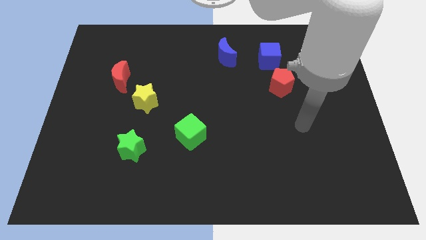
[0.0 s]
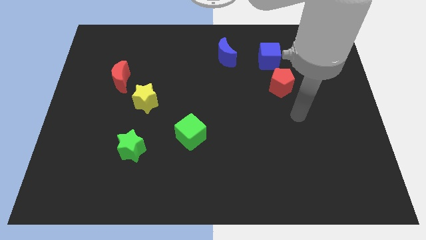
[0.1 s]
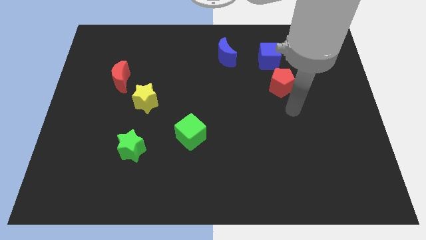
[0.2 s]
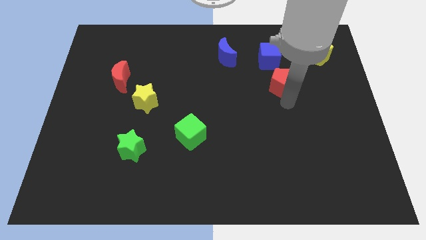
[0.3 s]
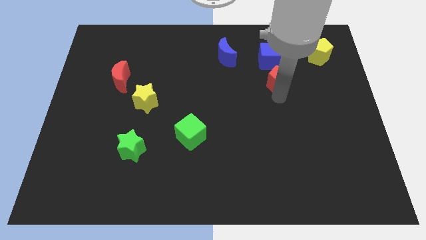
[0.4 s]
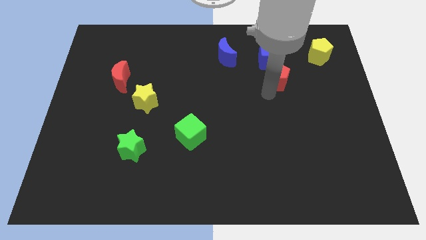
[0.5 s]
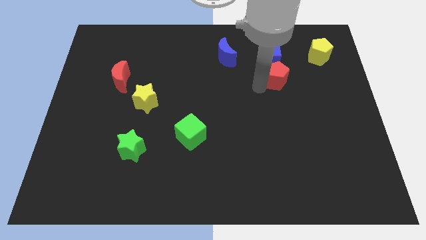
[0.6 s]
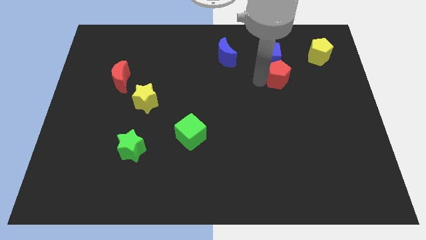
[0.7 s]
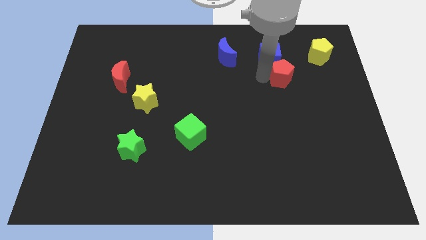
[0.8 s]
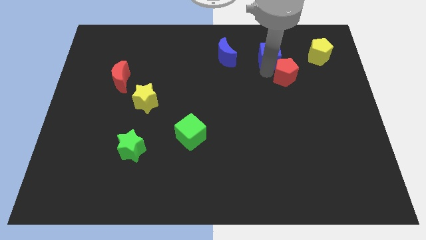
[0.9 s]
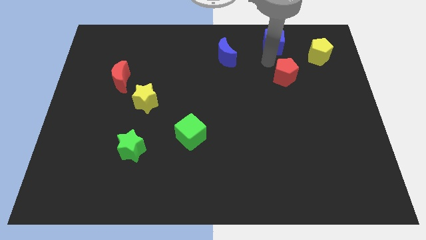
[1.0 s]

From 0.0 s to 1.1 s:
pull the red pentagon apart from the blue cube

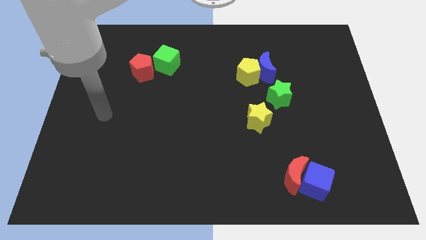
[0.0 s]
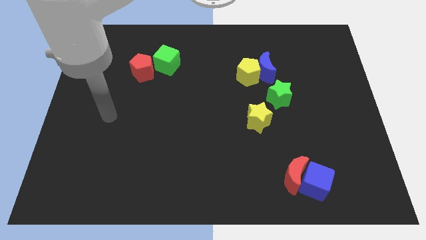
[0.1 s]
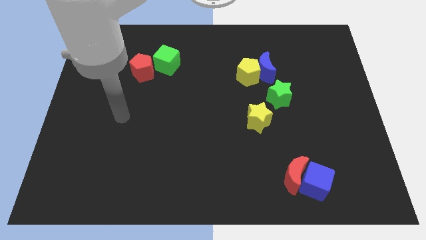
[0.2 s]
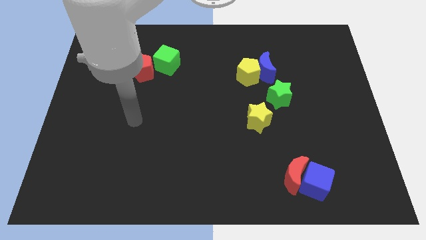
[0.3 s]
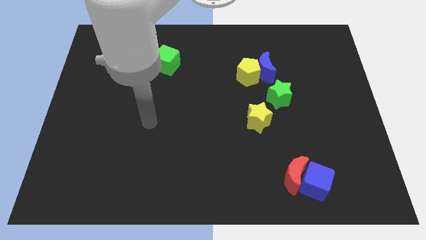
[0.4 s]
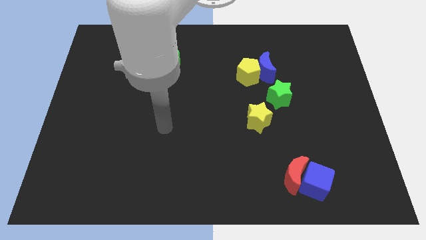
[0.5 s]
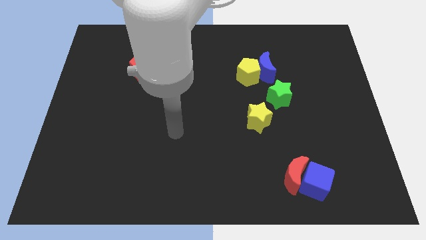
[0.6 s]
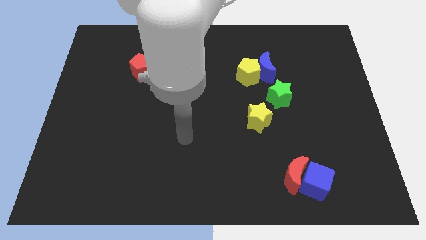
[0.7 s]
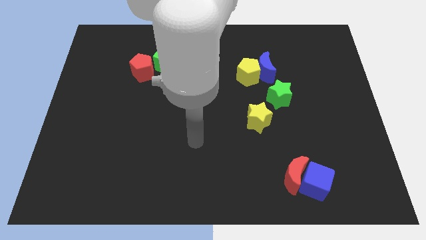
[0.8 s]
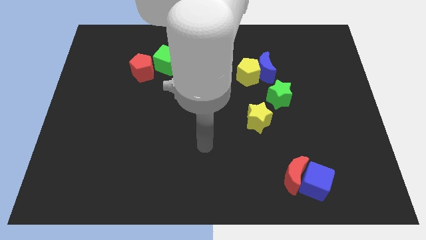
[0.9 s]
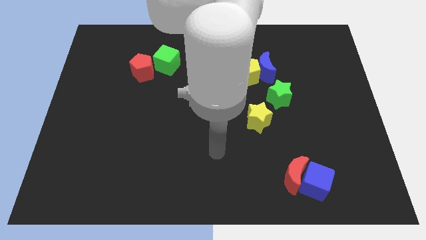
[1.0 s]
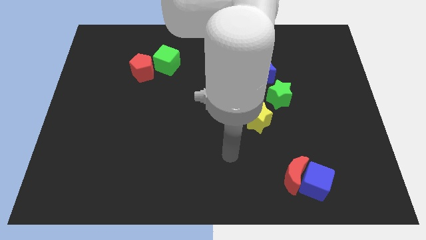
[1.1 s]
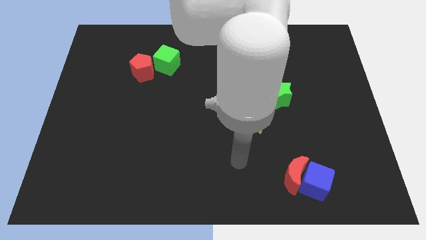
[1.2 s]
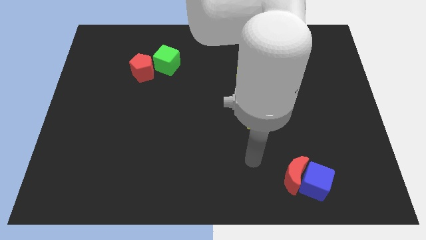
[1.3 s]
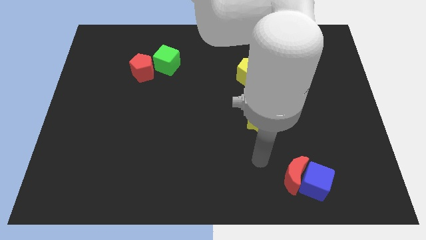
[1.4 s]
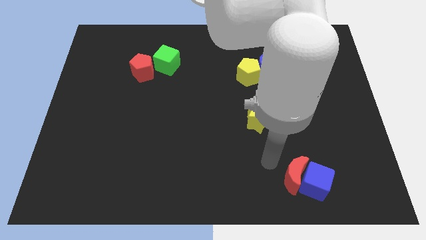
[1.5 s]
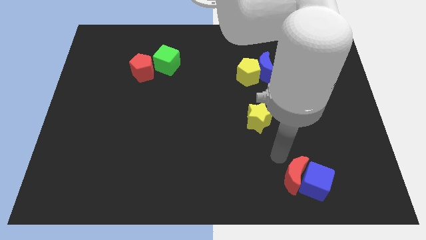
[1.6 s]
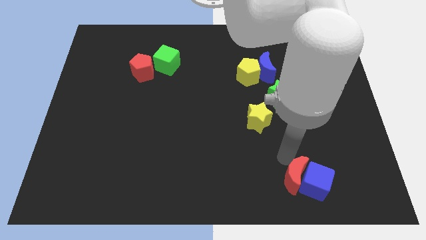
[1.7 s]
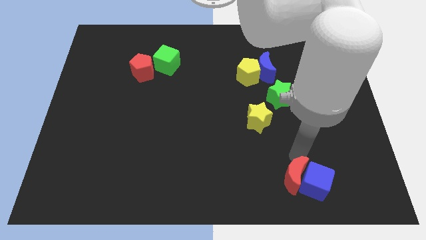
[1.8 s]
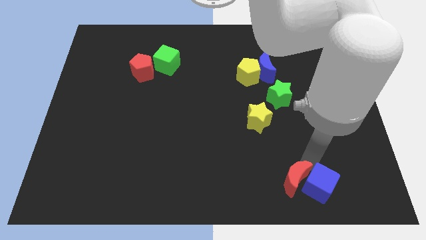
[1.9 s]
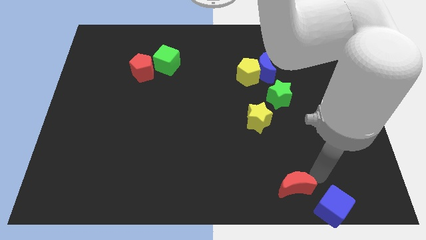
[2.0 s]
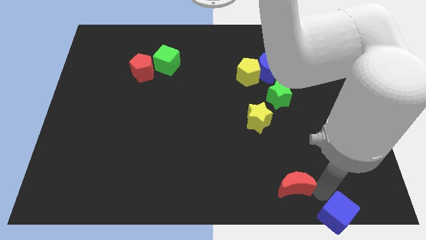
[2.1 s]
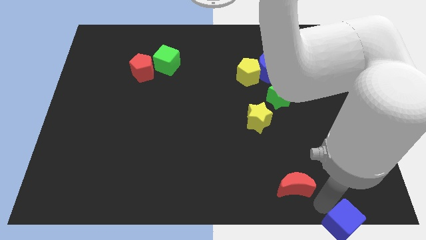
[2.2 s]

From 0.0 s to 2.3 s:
move the red moon away from the blue cube

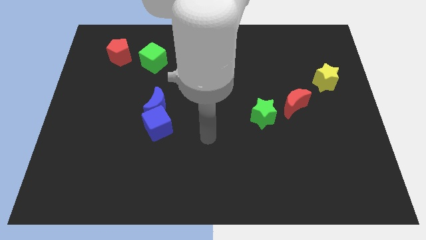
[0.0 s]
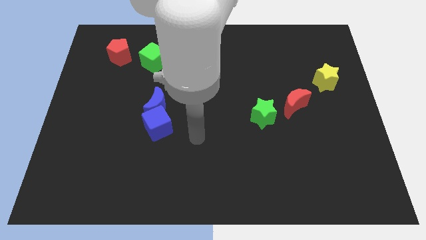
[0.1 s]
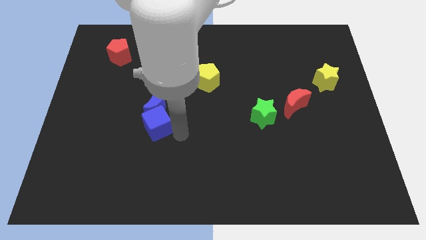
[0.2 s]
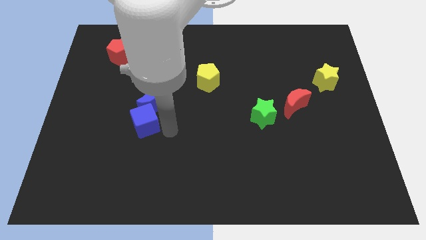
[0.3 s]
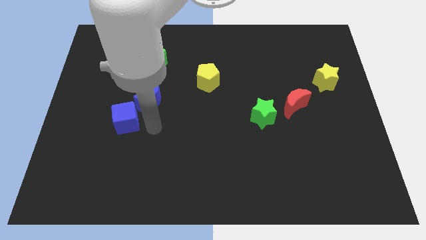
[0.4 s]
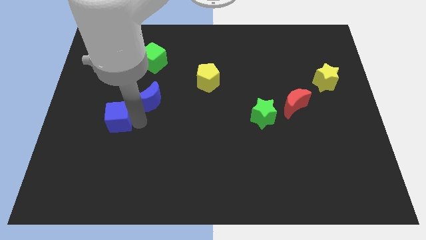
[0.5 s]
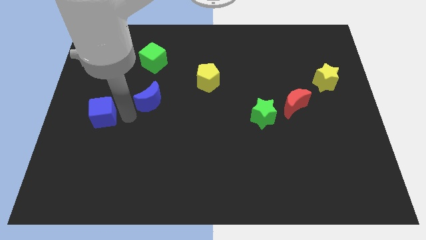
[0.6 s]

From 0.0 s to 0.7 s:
separate the blue moon from the blue cube

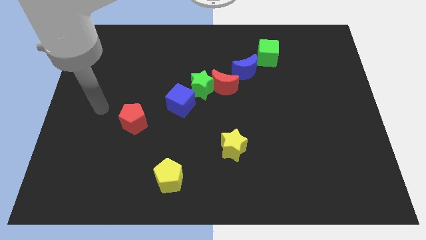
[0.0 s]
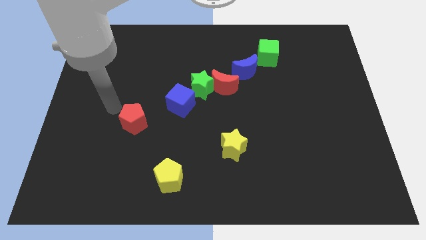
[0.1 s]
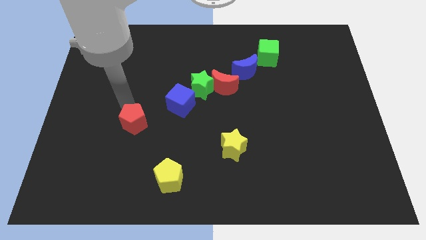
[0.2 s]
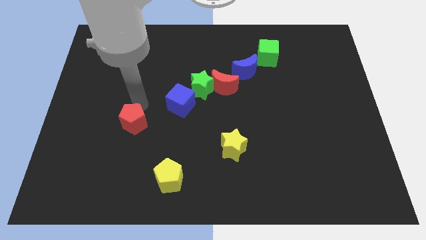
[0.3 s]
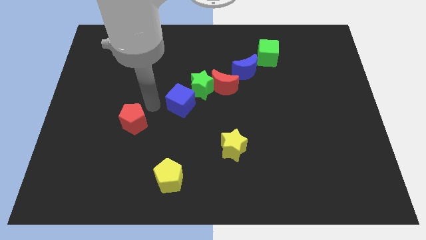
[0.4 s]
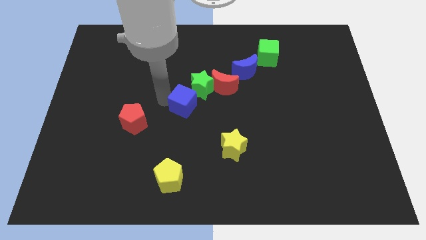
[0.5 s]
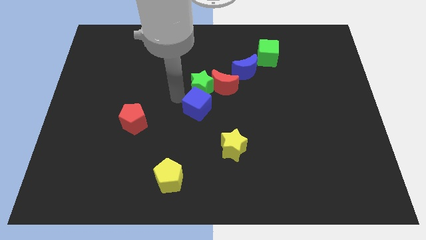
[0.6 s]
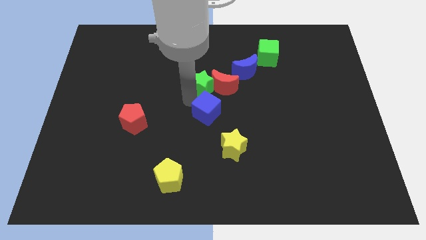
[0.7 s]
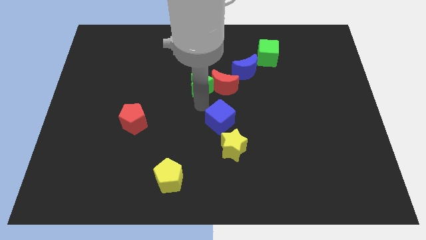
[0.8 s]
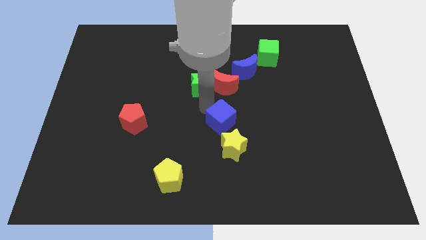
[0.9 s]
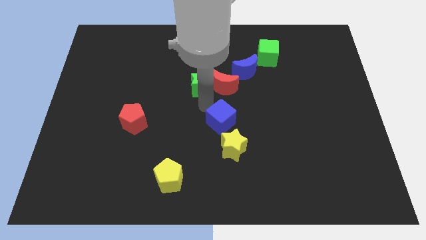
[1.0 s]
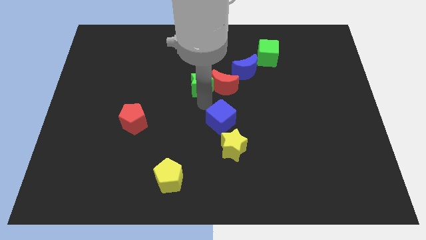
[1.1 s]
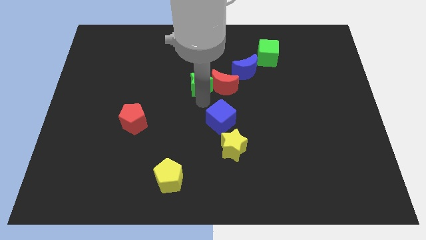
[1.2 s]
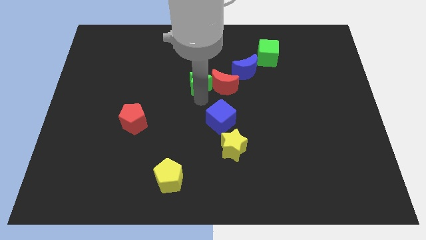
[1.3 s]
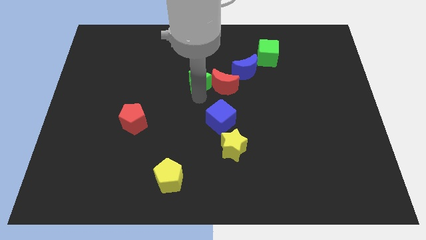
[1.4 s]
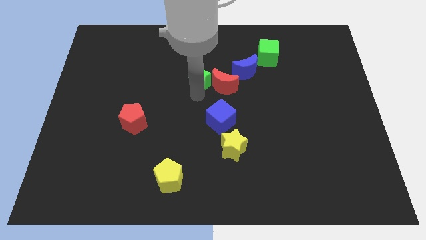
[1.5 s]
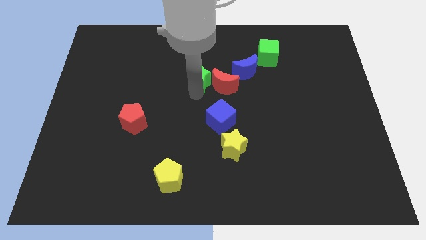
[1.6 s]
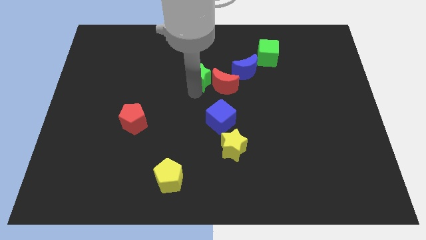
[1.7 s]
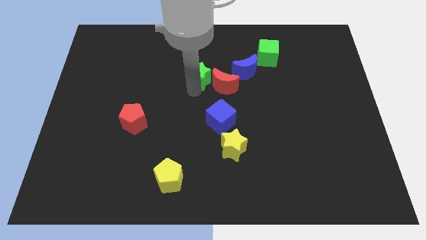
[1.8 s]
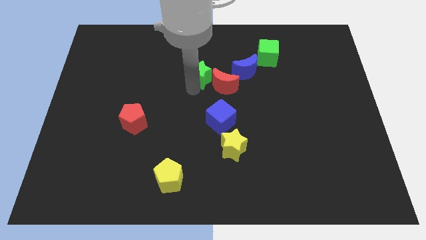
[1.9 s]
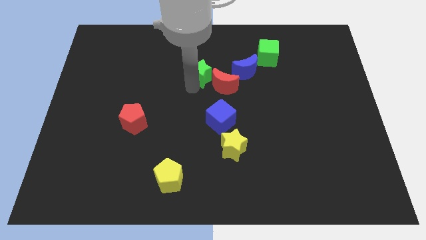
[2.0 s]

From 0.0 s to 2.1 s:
separate the green star from the red moon and blue cube

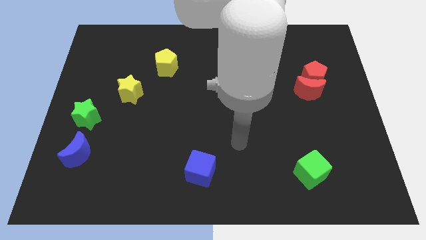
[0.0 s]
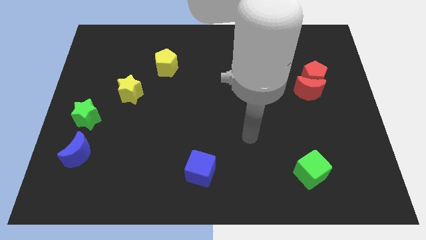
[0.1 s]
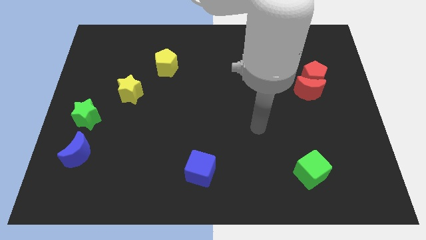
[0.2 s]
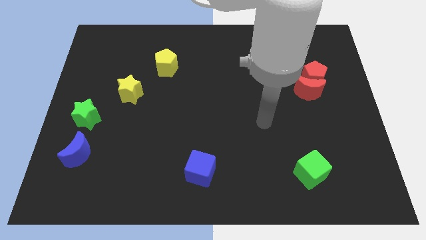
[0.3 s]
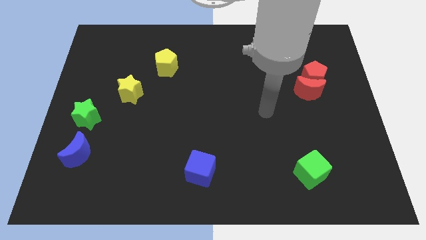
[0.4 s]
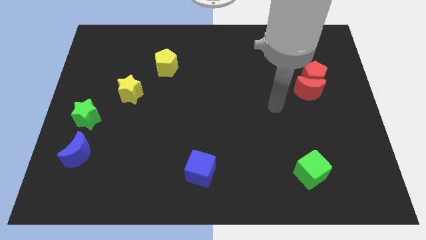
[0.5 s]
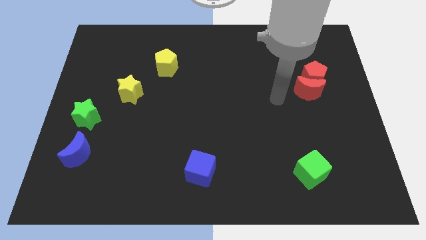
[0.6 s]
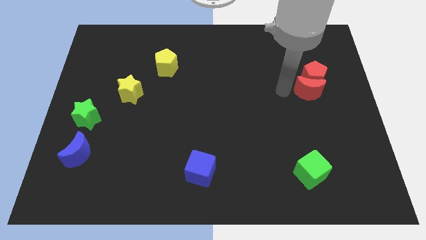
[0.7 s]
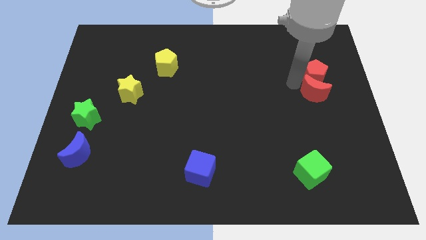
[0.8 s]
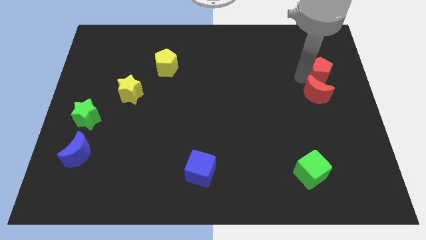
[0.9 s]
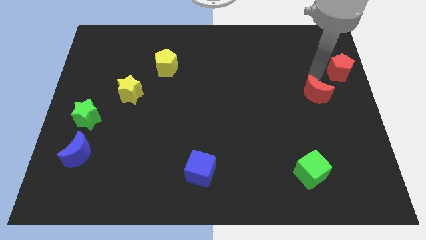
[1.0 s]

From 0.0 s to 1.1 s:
separate the red moon from the red pentagon

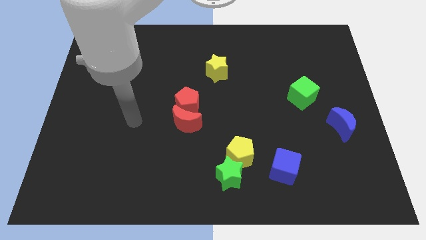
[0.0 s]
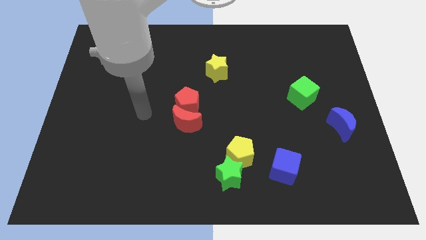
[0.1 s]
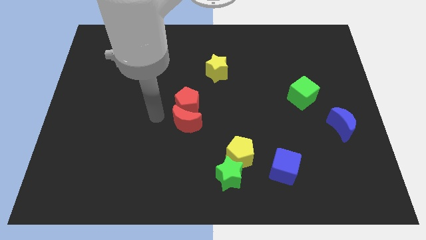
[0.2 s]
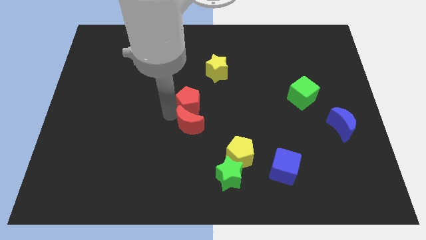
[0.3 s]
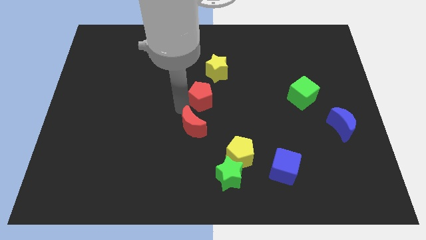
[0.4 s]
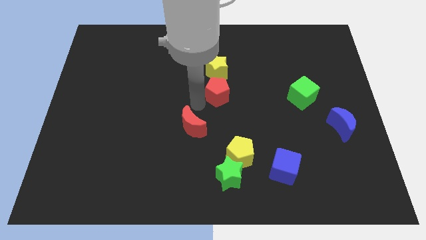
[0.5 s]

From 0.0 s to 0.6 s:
move the red moon away from the red pentagon

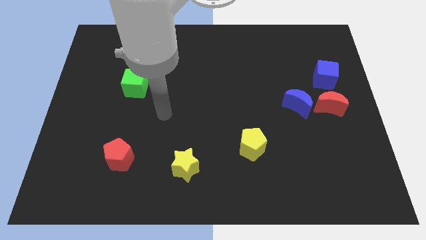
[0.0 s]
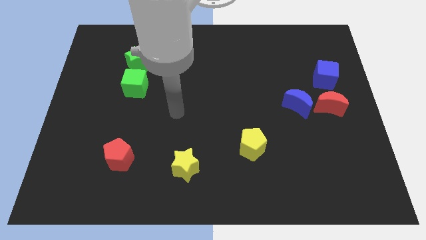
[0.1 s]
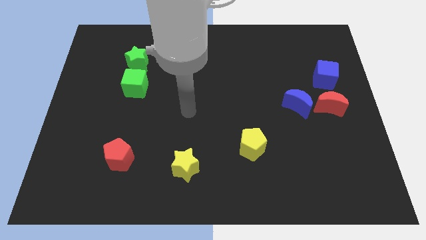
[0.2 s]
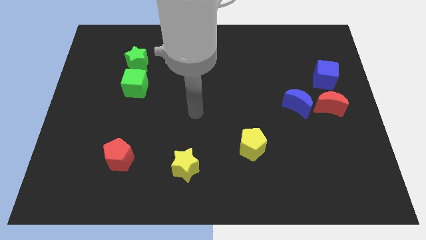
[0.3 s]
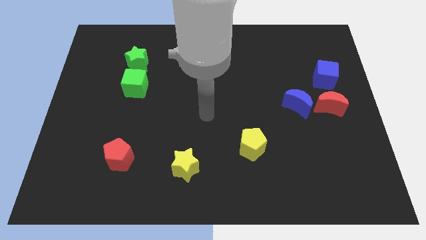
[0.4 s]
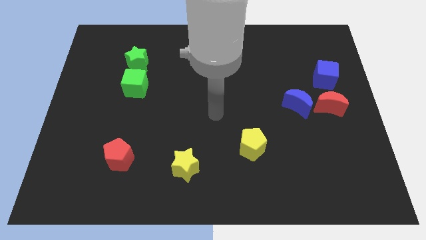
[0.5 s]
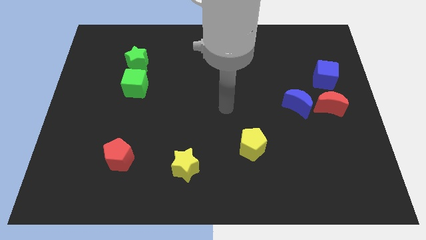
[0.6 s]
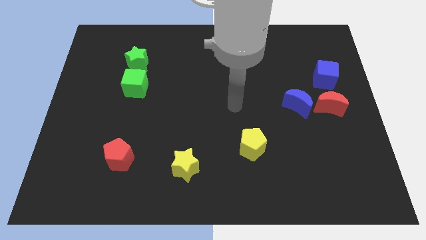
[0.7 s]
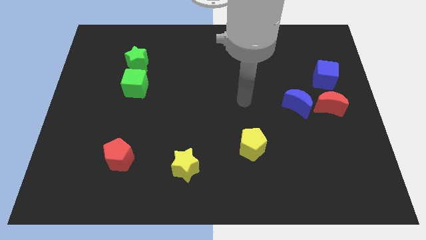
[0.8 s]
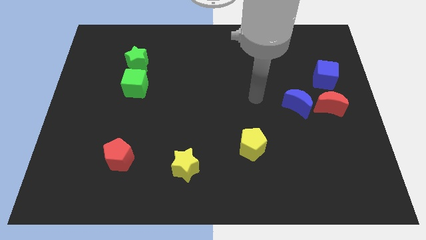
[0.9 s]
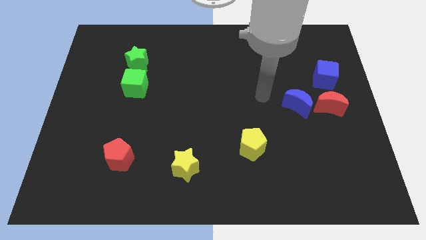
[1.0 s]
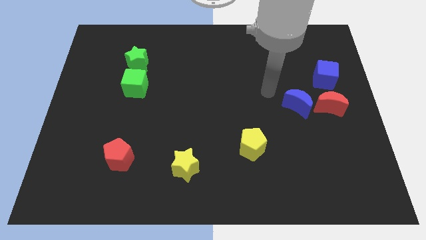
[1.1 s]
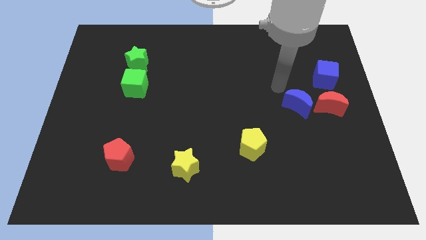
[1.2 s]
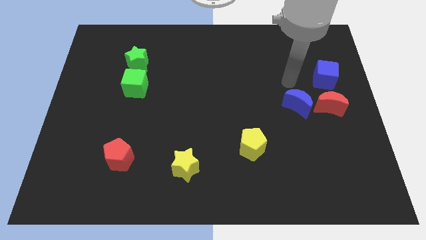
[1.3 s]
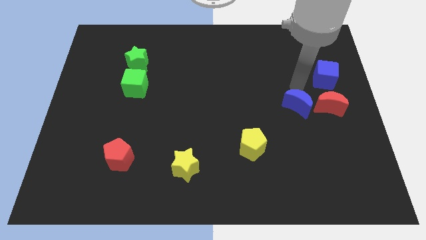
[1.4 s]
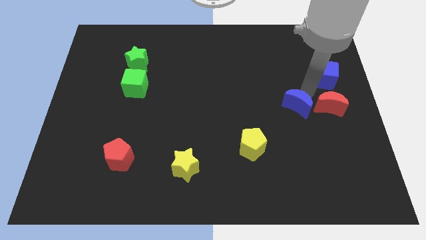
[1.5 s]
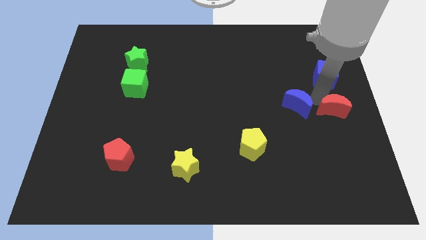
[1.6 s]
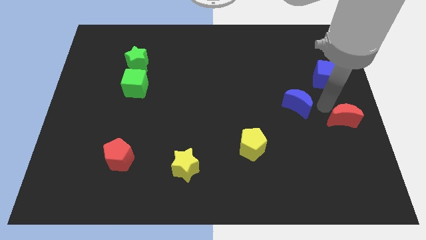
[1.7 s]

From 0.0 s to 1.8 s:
pull the blue moon apart from the red moon
